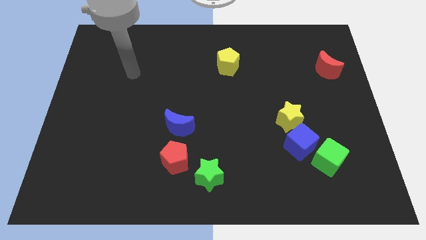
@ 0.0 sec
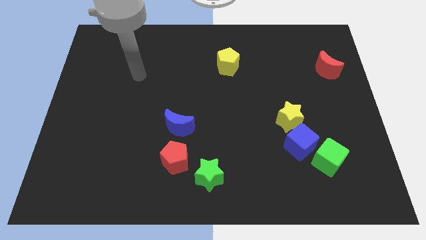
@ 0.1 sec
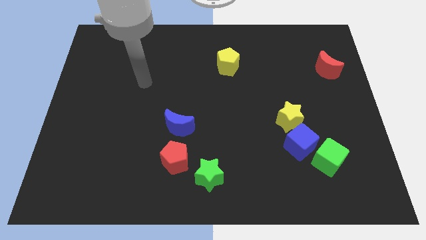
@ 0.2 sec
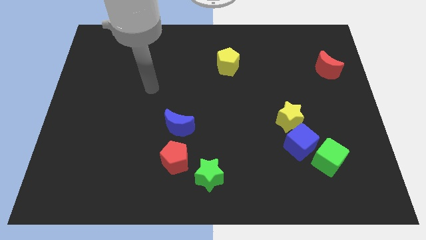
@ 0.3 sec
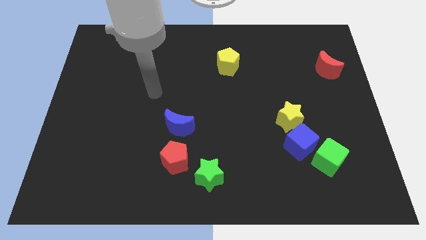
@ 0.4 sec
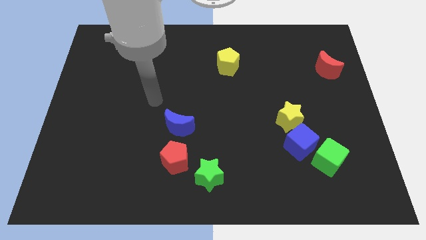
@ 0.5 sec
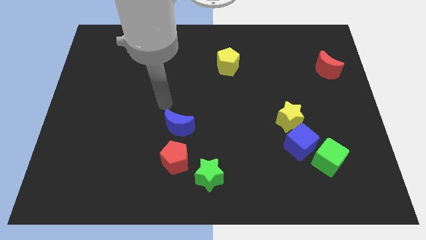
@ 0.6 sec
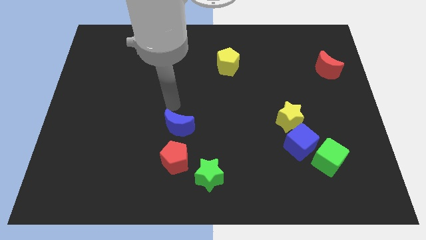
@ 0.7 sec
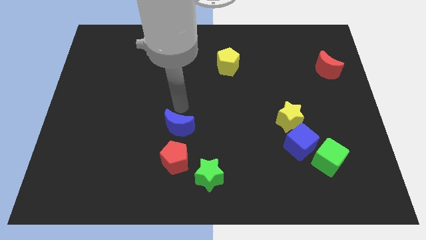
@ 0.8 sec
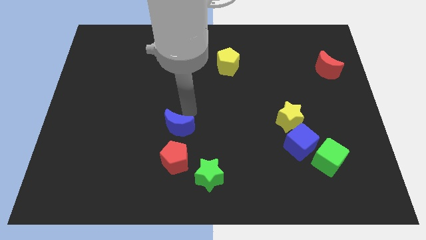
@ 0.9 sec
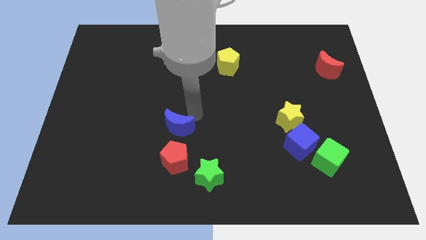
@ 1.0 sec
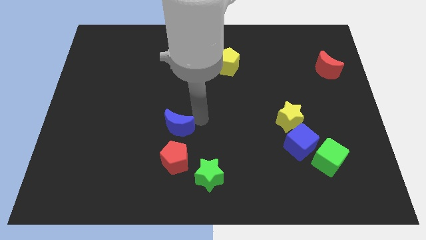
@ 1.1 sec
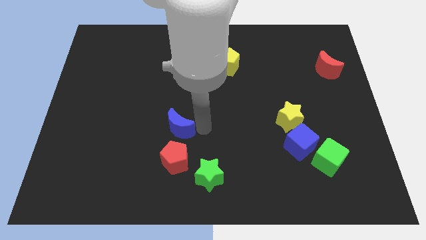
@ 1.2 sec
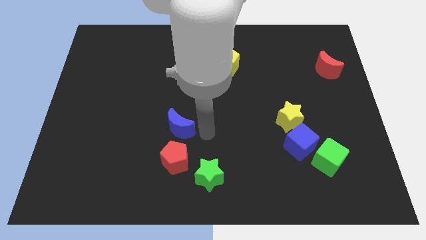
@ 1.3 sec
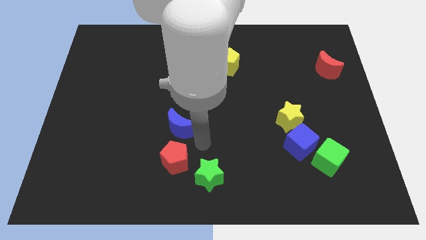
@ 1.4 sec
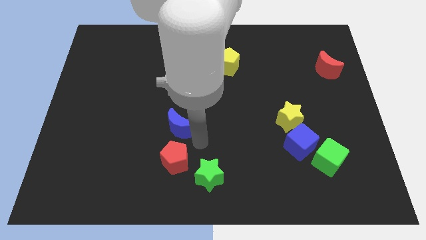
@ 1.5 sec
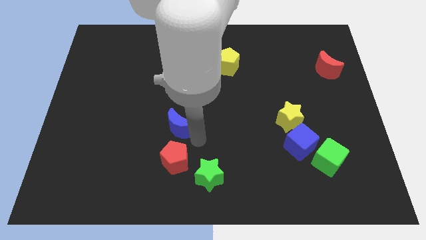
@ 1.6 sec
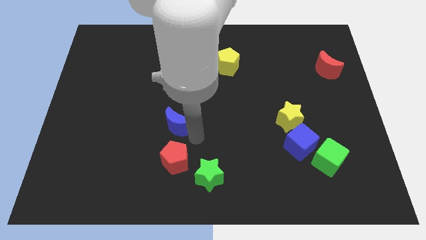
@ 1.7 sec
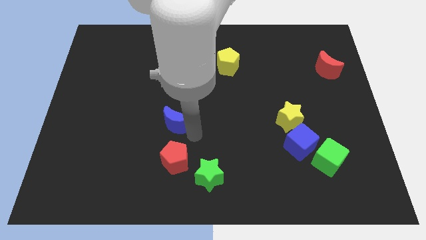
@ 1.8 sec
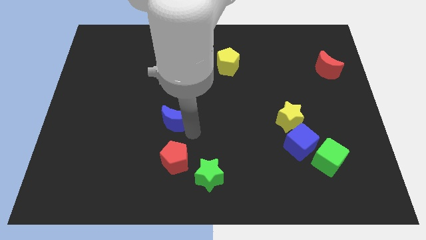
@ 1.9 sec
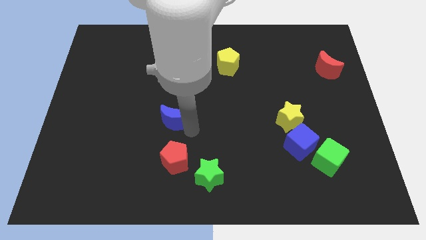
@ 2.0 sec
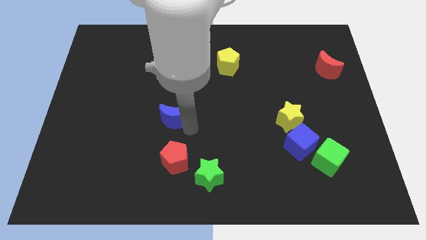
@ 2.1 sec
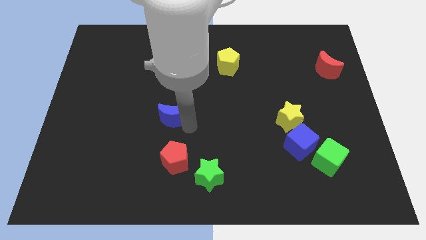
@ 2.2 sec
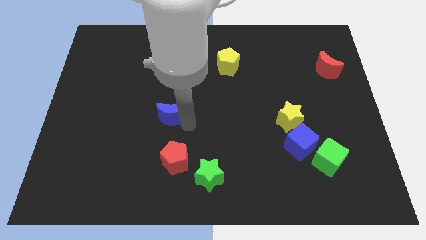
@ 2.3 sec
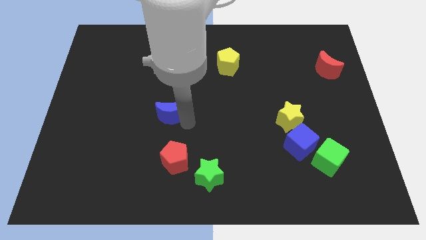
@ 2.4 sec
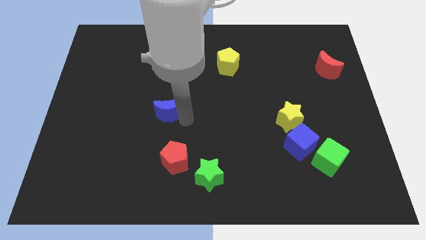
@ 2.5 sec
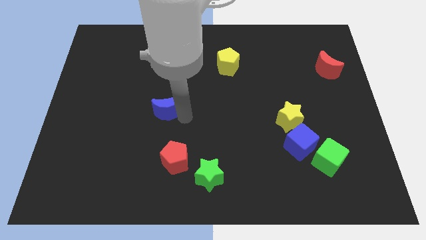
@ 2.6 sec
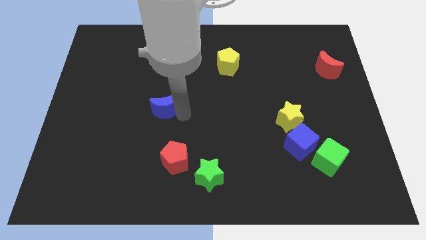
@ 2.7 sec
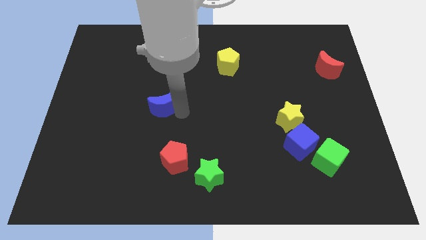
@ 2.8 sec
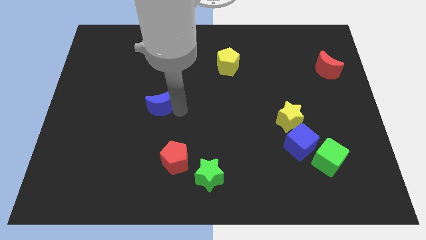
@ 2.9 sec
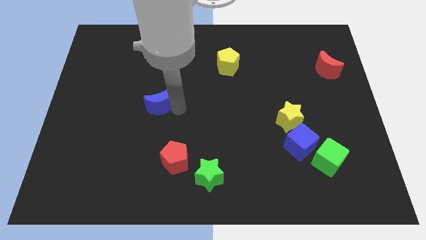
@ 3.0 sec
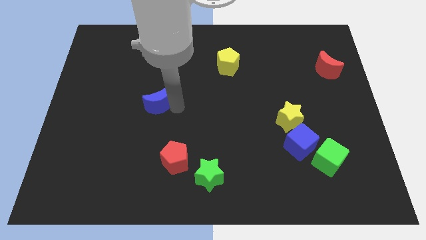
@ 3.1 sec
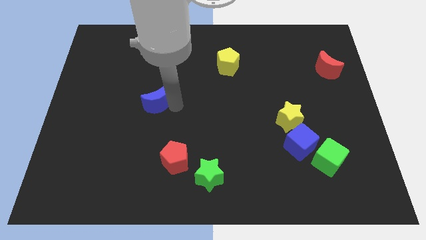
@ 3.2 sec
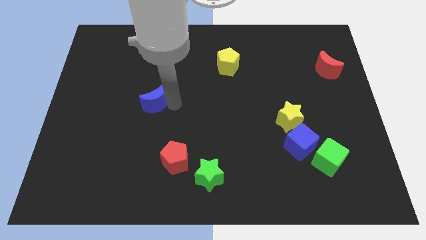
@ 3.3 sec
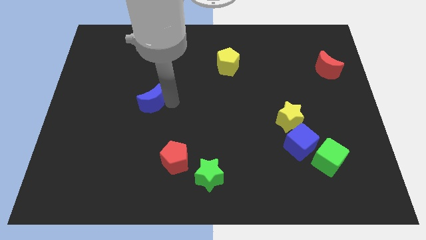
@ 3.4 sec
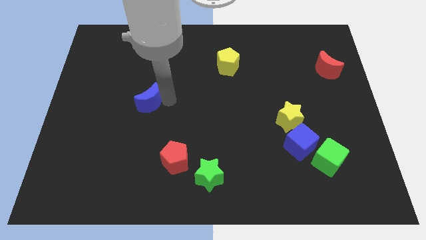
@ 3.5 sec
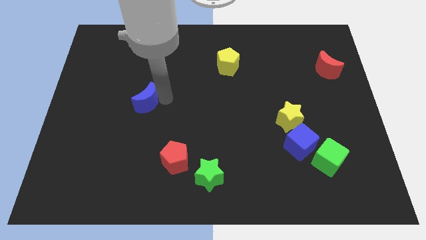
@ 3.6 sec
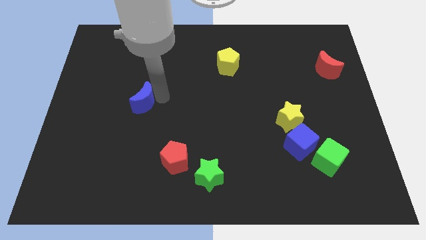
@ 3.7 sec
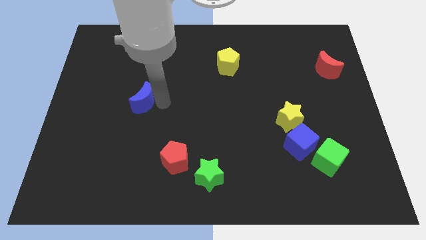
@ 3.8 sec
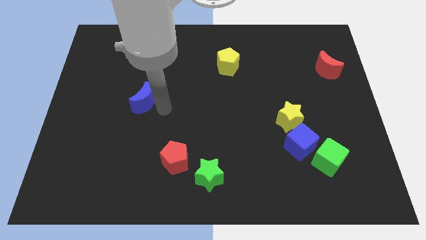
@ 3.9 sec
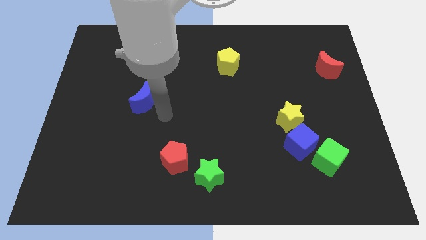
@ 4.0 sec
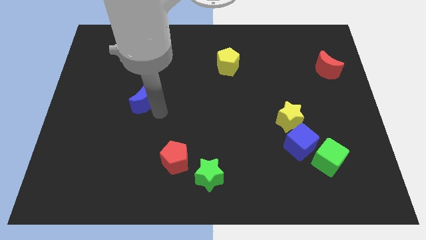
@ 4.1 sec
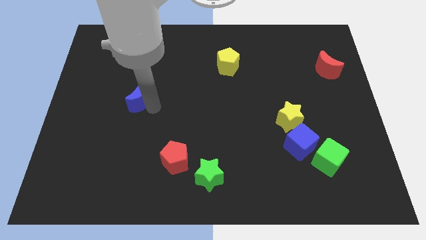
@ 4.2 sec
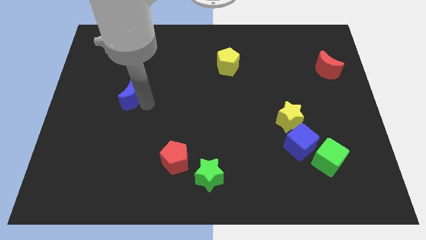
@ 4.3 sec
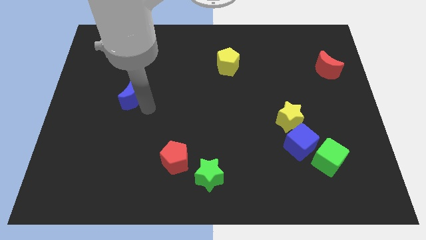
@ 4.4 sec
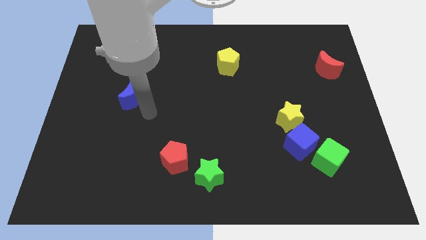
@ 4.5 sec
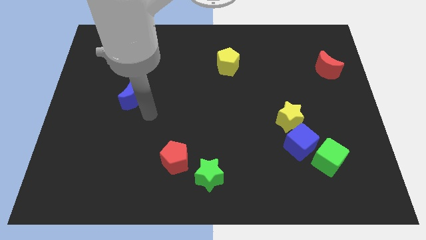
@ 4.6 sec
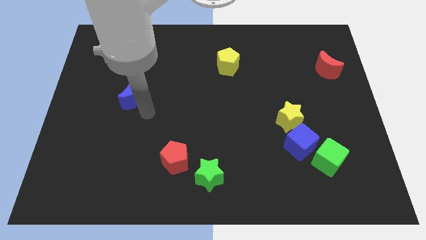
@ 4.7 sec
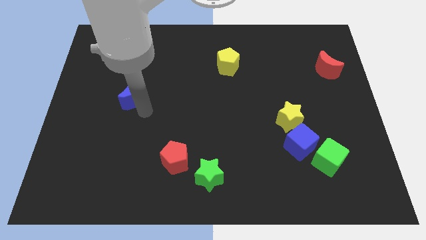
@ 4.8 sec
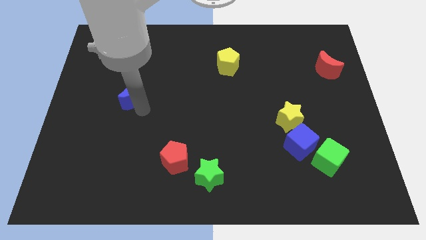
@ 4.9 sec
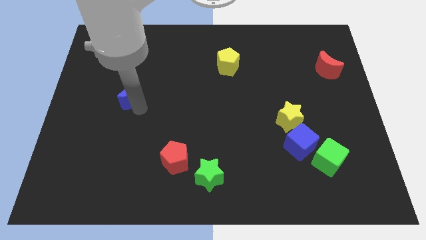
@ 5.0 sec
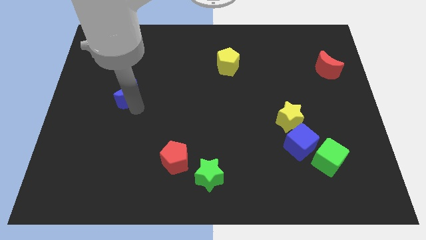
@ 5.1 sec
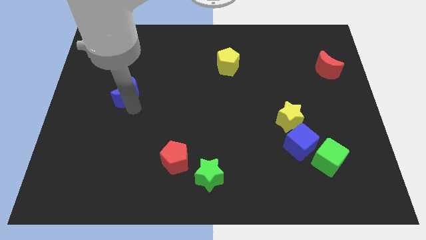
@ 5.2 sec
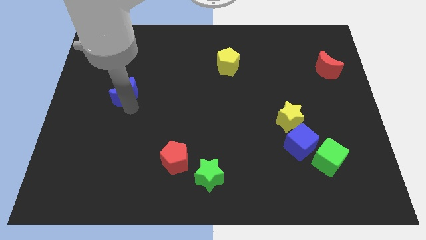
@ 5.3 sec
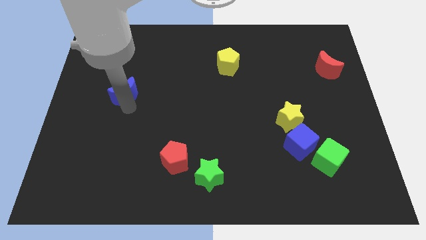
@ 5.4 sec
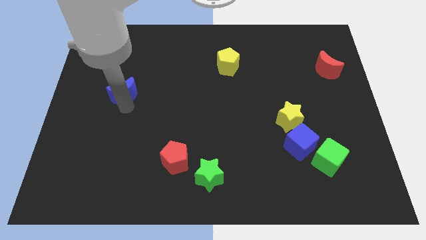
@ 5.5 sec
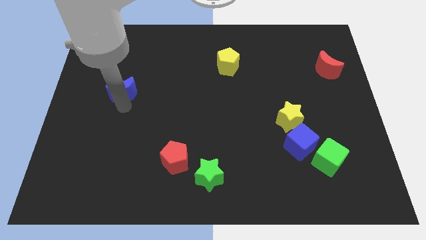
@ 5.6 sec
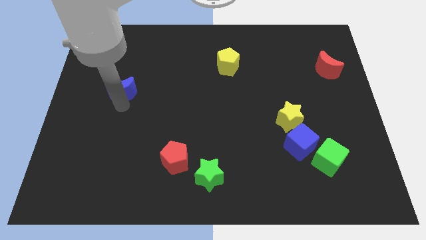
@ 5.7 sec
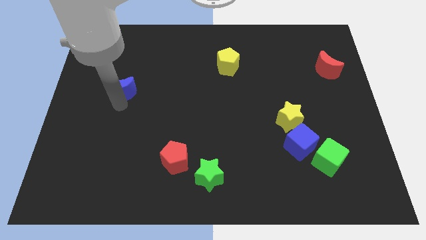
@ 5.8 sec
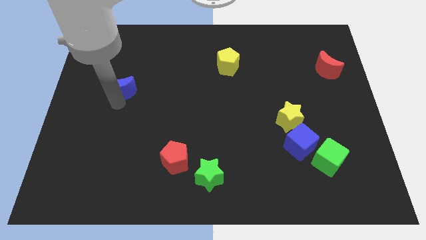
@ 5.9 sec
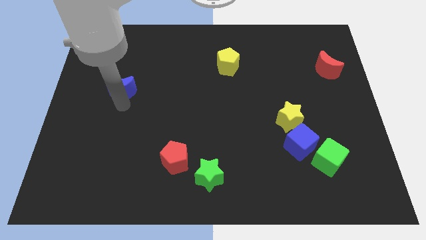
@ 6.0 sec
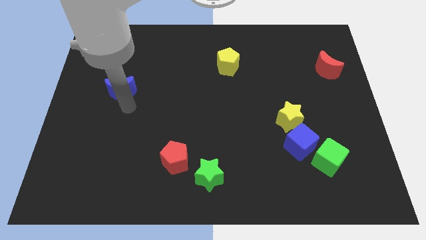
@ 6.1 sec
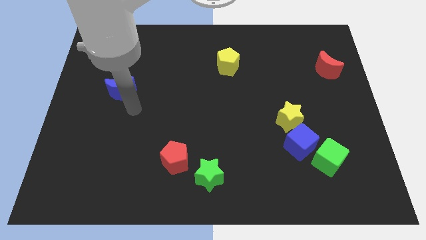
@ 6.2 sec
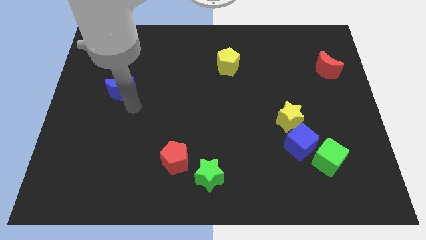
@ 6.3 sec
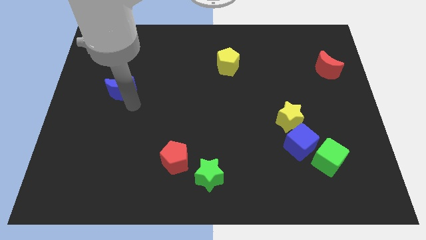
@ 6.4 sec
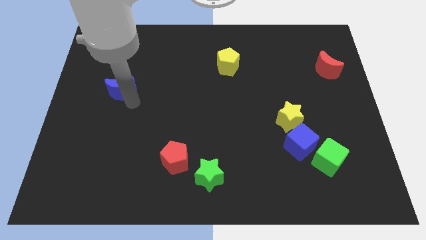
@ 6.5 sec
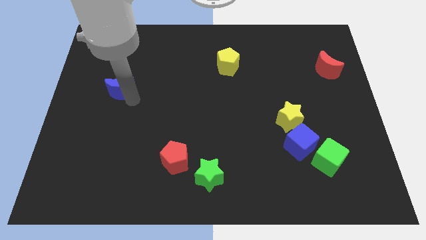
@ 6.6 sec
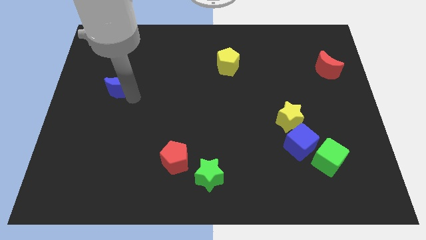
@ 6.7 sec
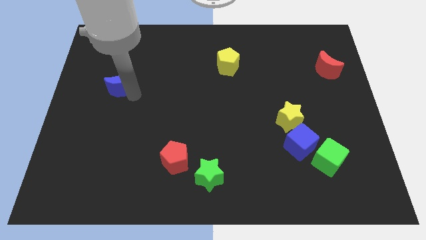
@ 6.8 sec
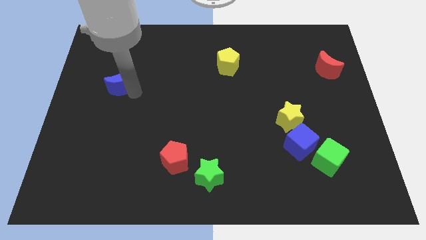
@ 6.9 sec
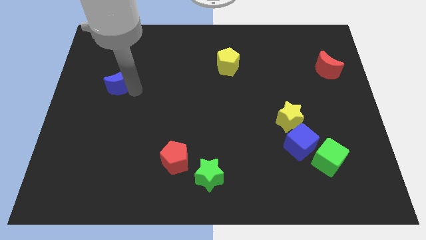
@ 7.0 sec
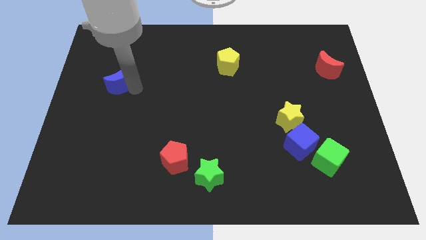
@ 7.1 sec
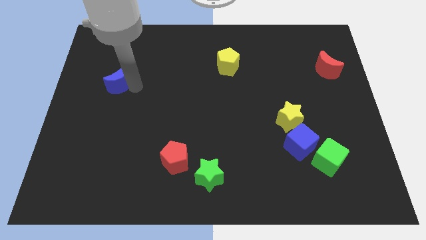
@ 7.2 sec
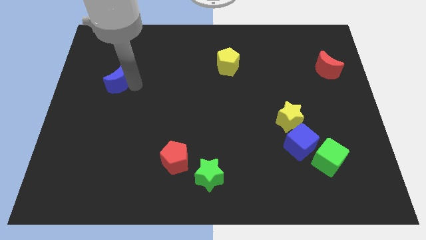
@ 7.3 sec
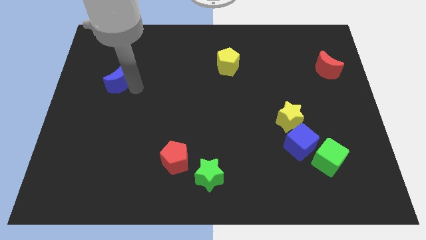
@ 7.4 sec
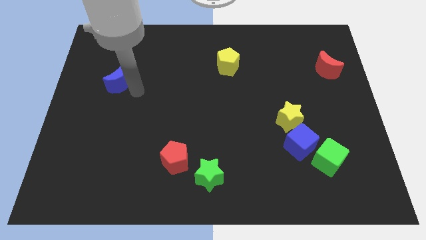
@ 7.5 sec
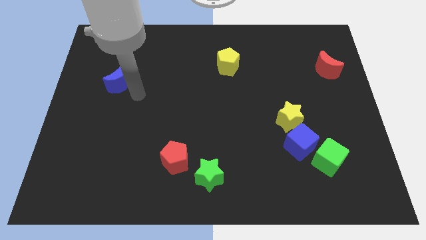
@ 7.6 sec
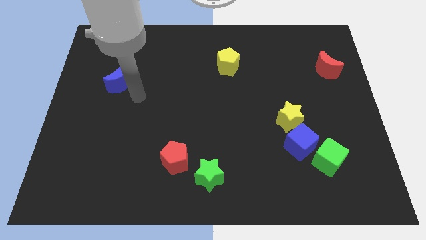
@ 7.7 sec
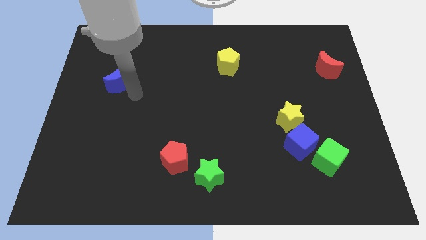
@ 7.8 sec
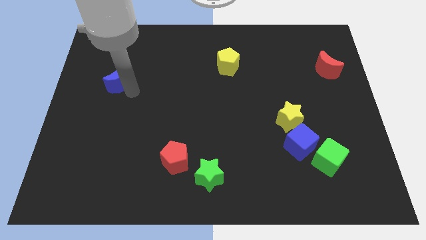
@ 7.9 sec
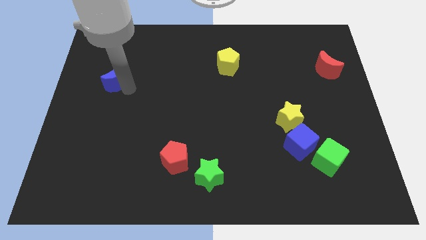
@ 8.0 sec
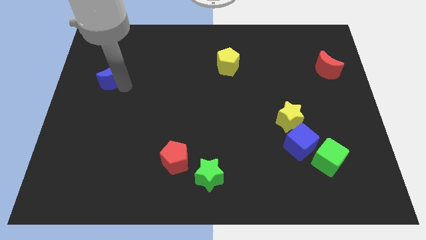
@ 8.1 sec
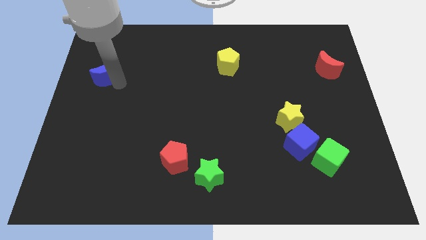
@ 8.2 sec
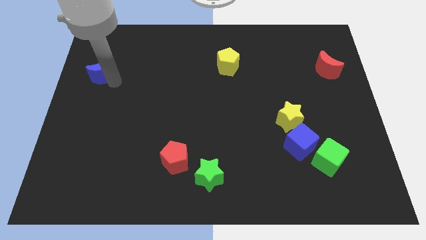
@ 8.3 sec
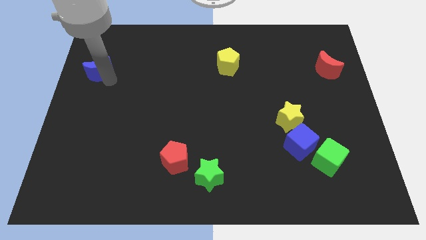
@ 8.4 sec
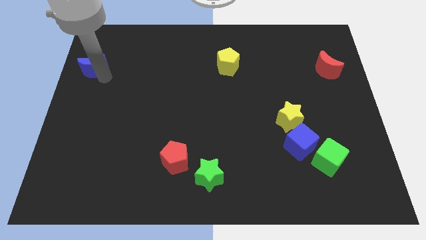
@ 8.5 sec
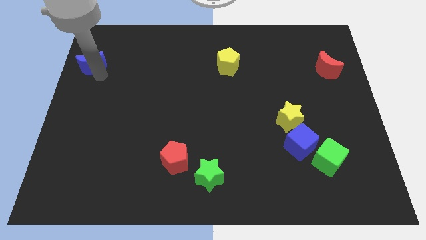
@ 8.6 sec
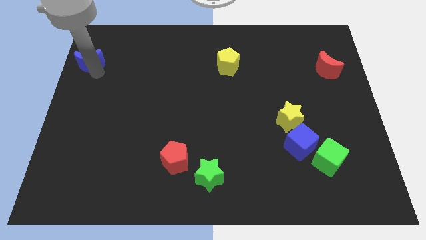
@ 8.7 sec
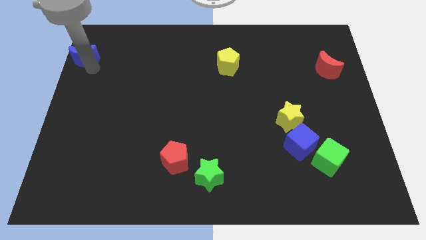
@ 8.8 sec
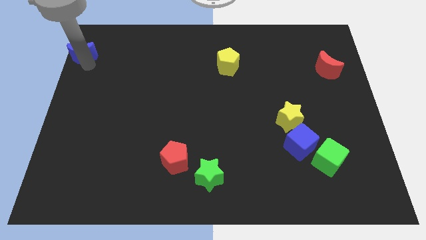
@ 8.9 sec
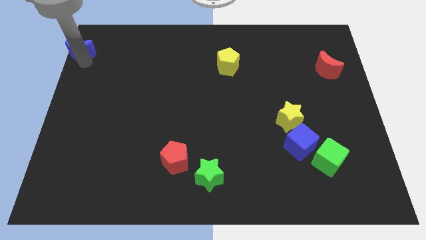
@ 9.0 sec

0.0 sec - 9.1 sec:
push the blue moon to the top left
